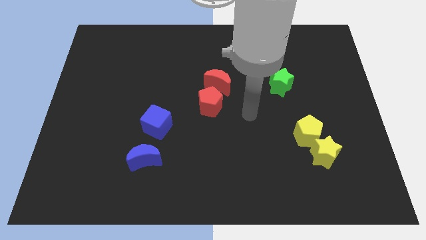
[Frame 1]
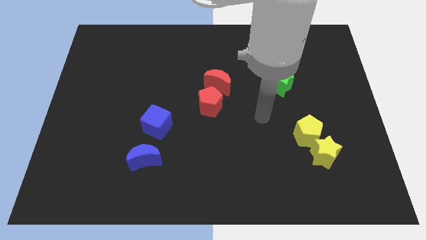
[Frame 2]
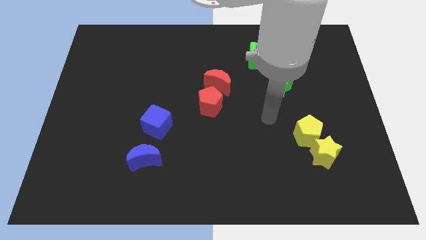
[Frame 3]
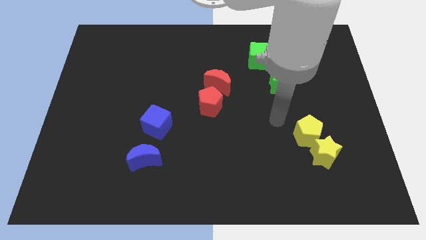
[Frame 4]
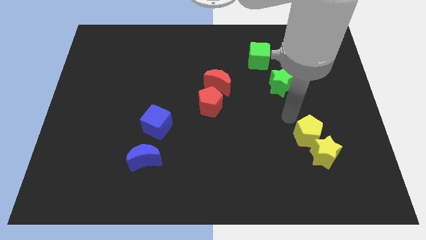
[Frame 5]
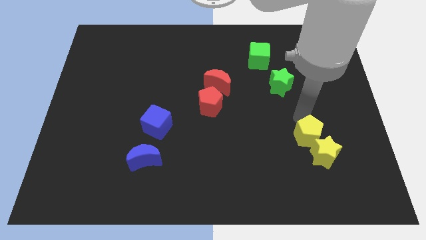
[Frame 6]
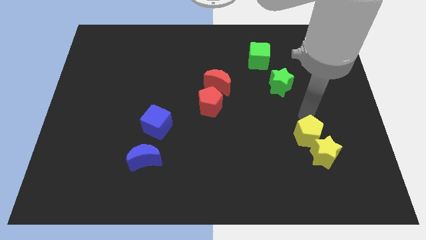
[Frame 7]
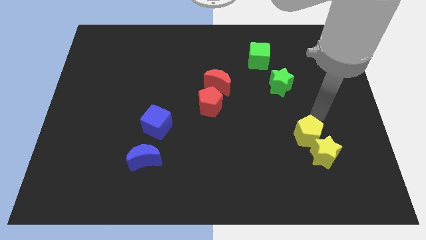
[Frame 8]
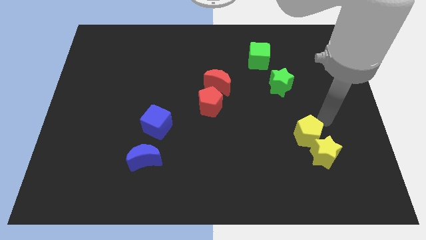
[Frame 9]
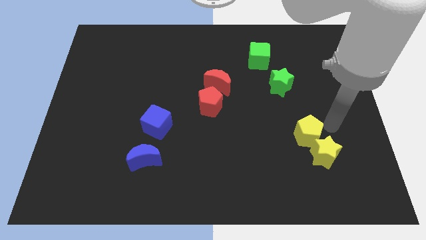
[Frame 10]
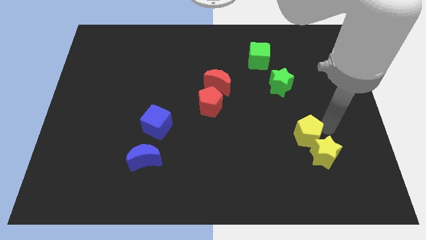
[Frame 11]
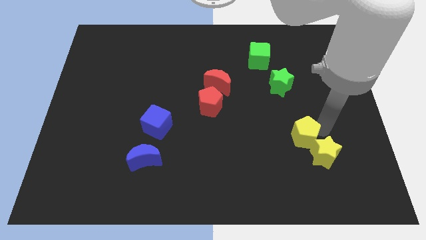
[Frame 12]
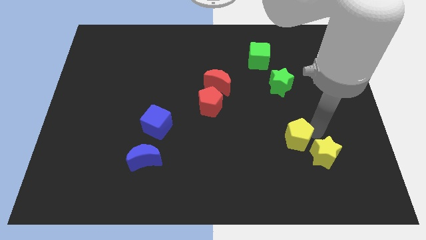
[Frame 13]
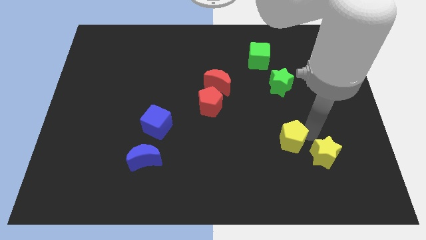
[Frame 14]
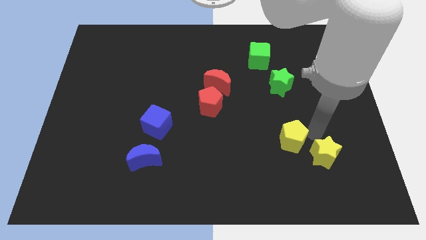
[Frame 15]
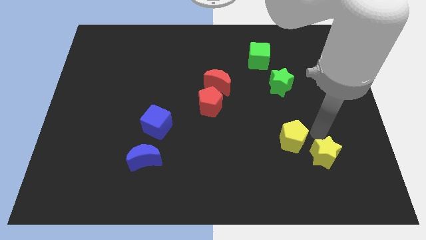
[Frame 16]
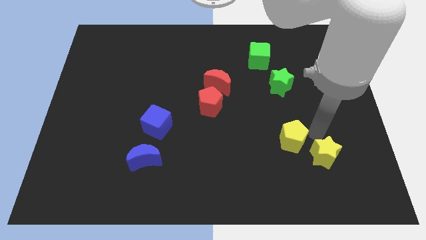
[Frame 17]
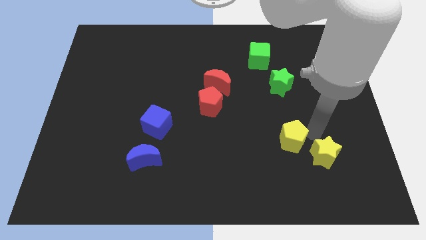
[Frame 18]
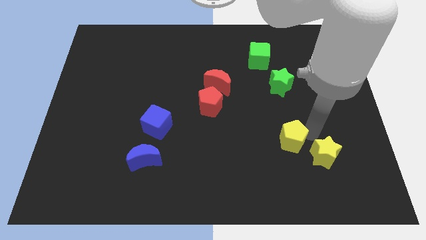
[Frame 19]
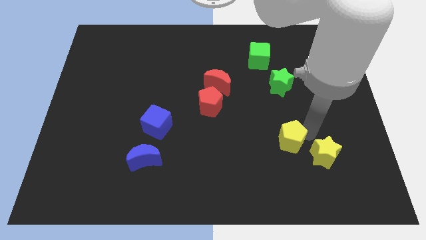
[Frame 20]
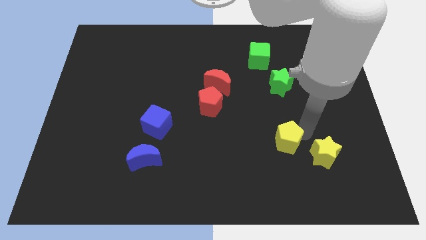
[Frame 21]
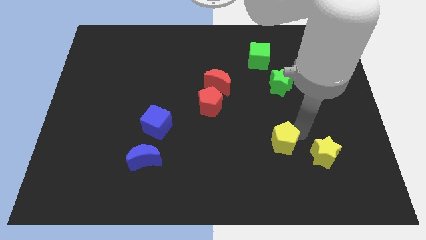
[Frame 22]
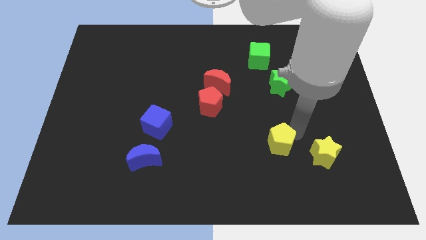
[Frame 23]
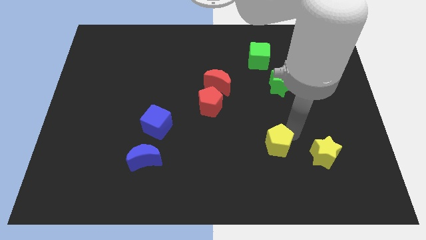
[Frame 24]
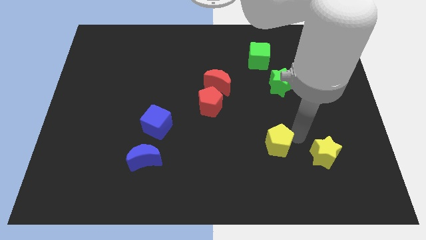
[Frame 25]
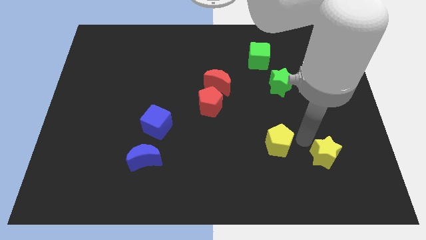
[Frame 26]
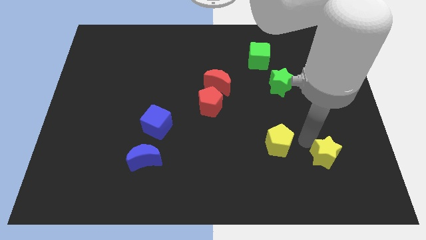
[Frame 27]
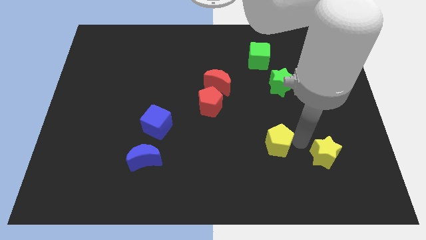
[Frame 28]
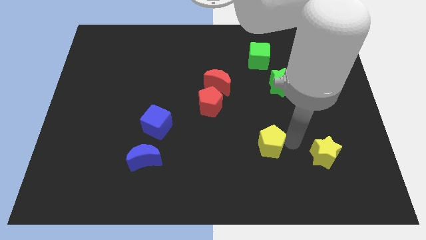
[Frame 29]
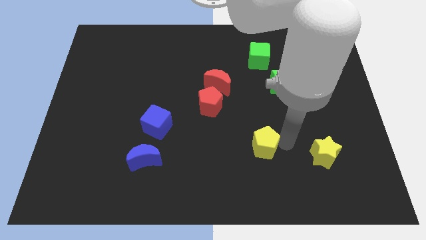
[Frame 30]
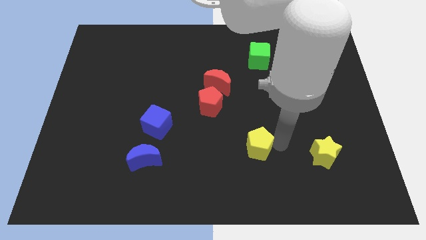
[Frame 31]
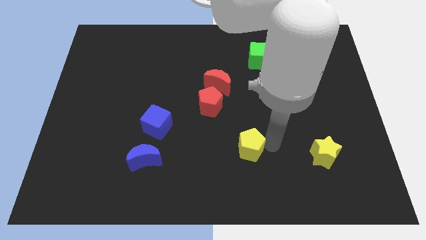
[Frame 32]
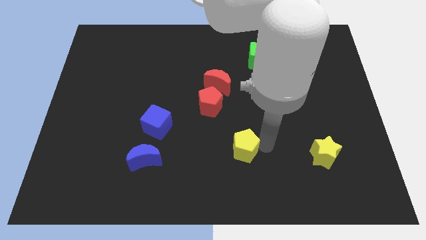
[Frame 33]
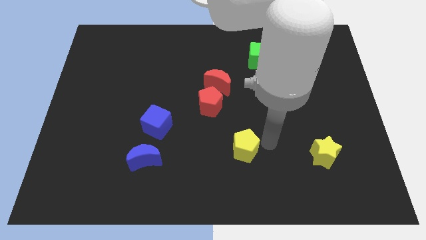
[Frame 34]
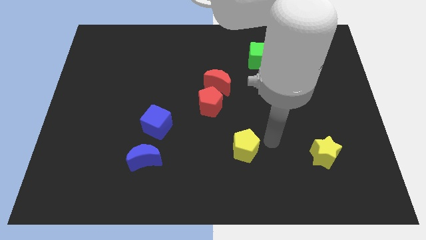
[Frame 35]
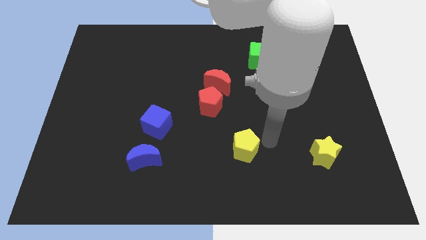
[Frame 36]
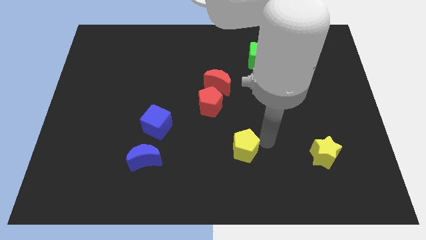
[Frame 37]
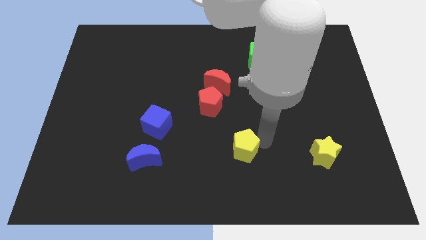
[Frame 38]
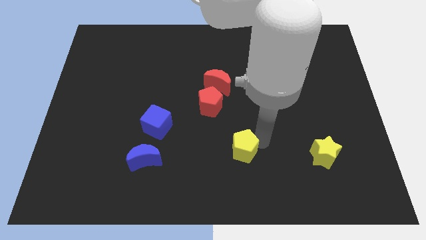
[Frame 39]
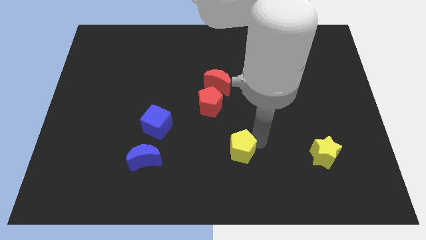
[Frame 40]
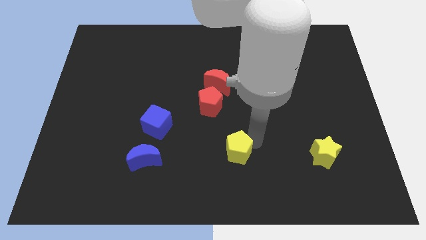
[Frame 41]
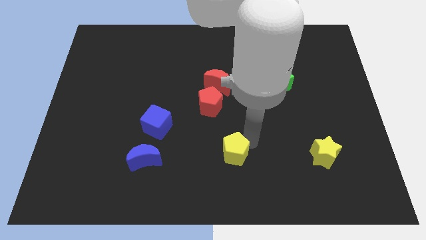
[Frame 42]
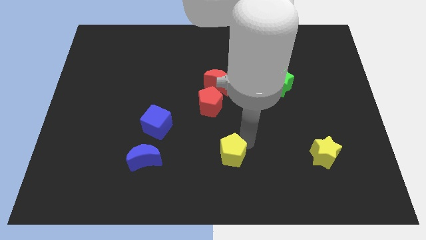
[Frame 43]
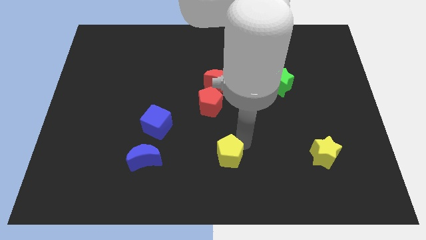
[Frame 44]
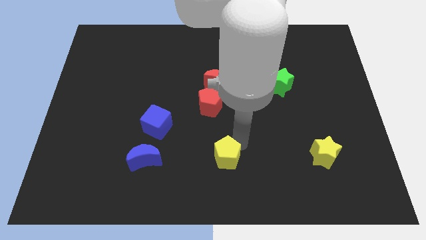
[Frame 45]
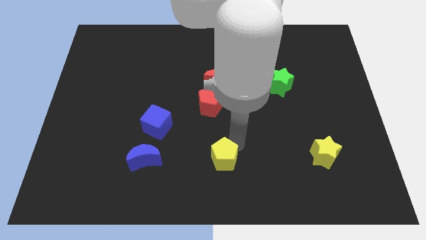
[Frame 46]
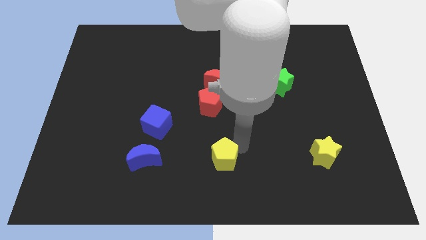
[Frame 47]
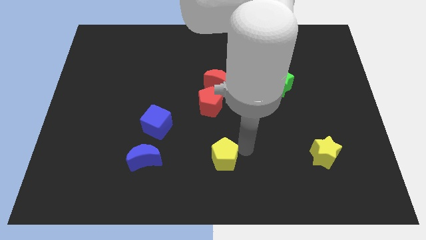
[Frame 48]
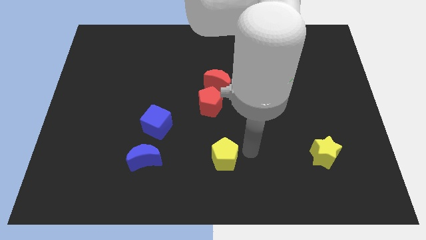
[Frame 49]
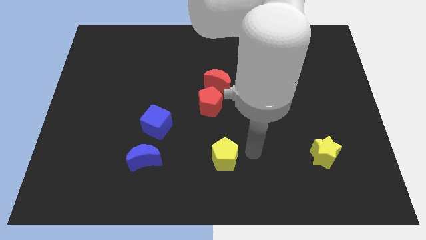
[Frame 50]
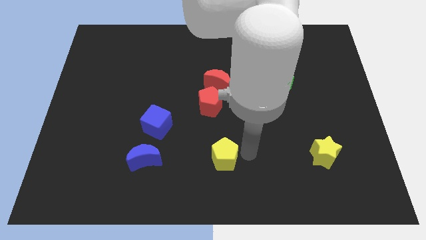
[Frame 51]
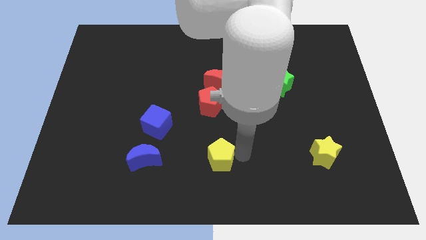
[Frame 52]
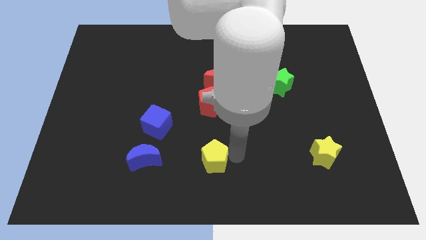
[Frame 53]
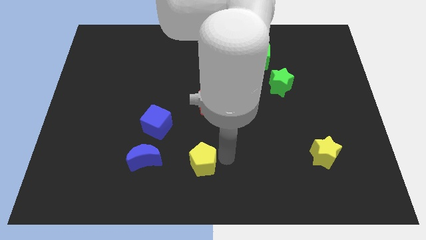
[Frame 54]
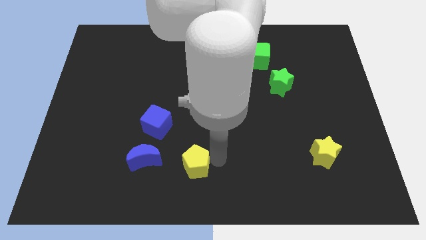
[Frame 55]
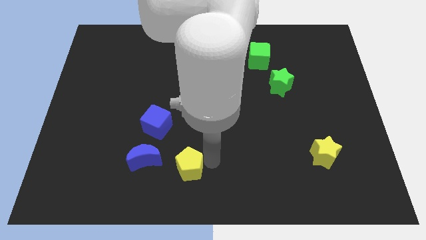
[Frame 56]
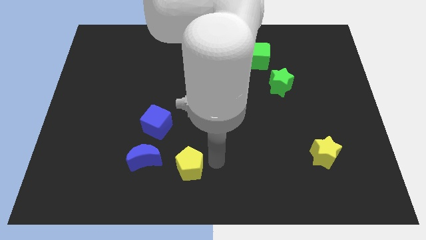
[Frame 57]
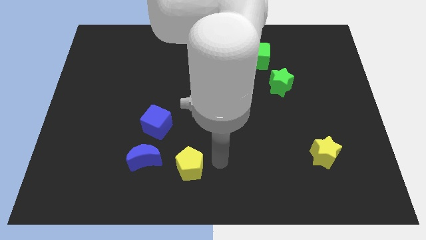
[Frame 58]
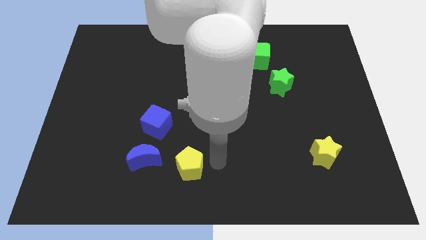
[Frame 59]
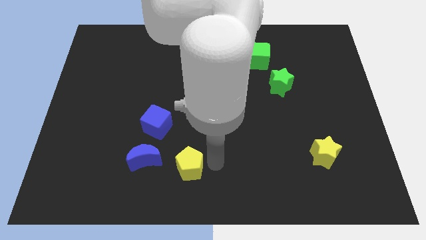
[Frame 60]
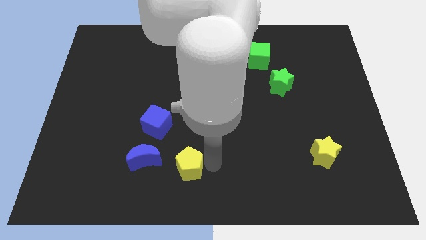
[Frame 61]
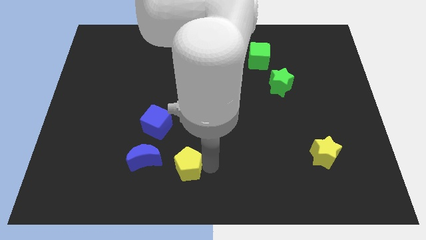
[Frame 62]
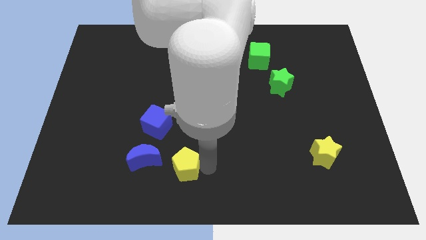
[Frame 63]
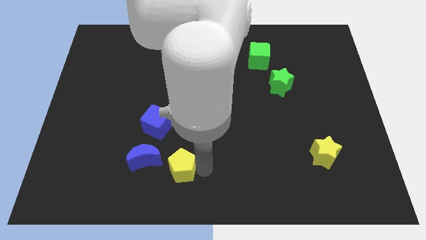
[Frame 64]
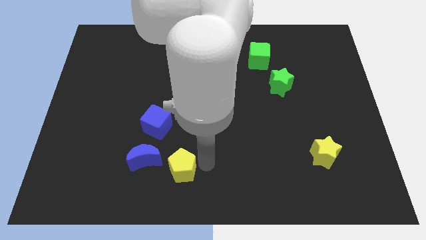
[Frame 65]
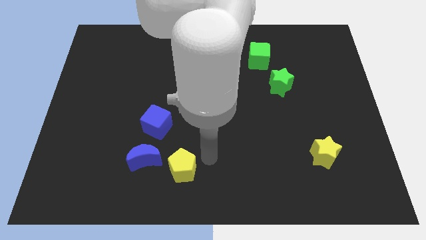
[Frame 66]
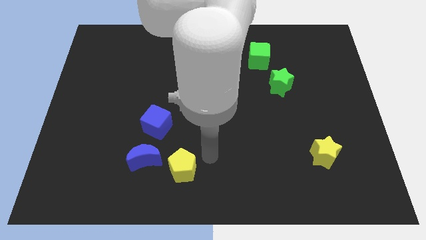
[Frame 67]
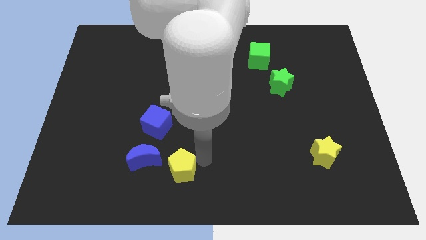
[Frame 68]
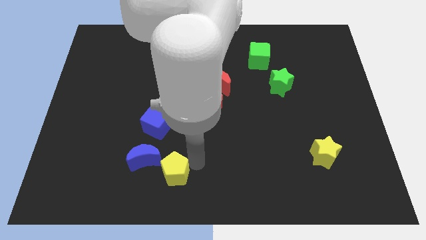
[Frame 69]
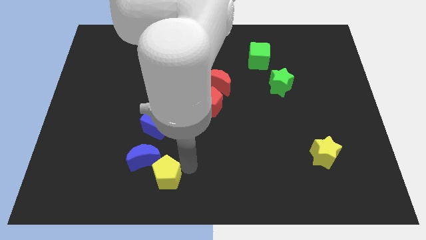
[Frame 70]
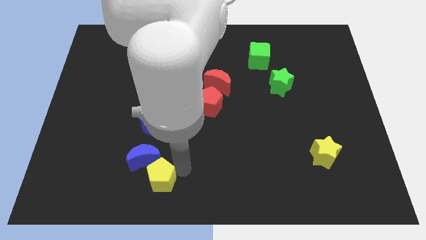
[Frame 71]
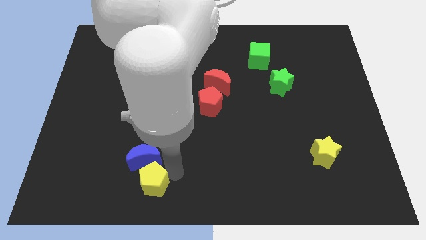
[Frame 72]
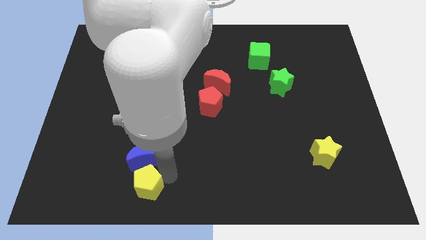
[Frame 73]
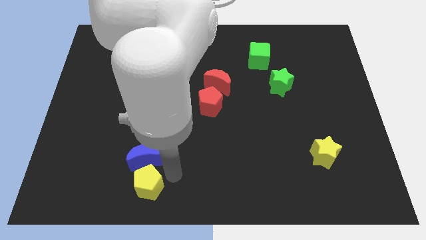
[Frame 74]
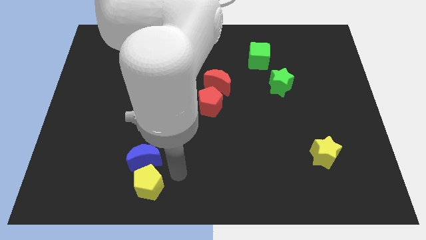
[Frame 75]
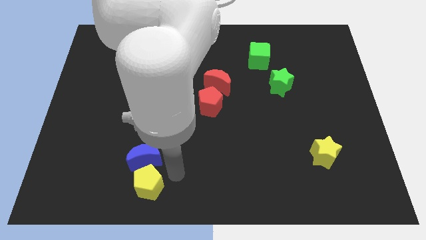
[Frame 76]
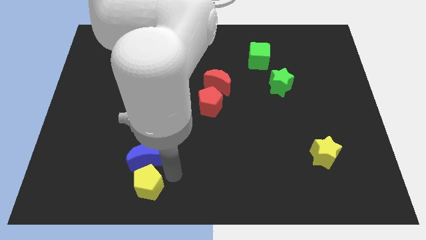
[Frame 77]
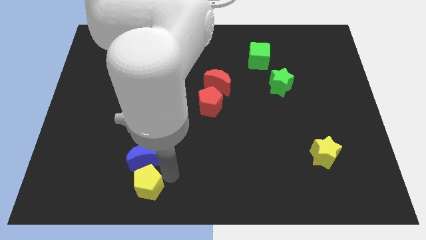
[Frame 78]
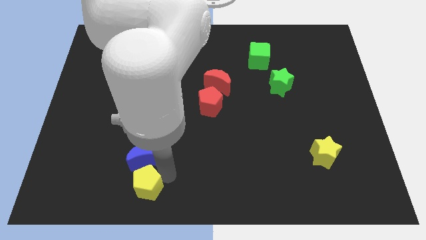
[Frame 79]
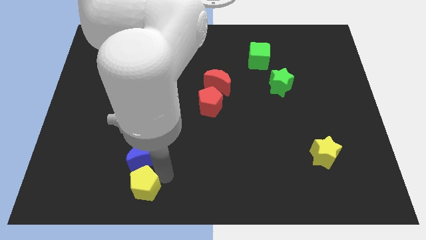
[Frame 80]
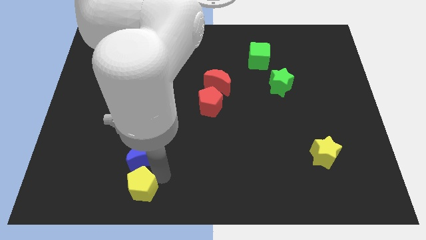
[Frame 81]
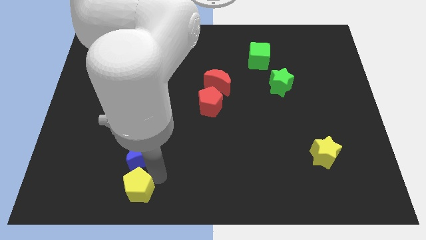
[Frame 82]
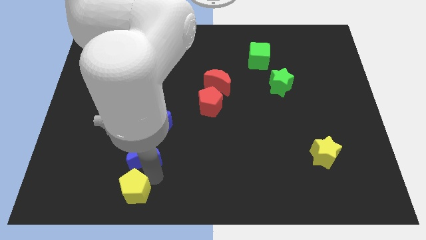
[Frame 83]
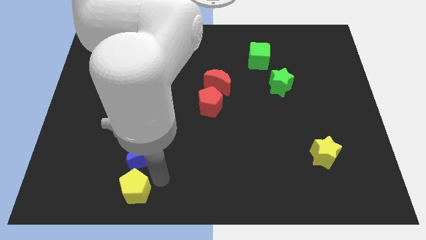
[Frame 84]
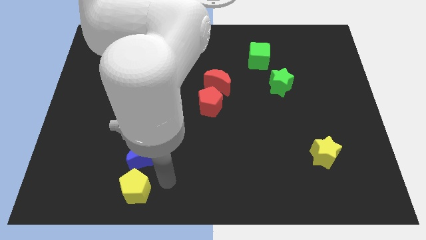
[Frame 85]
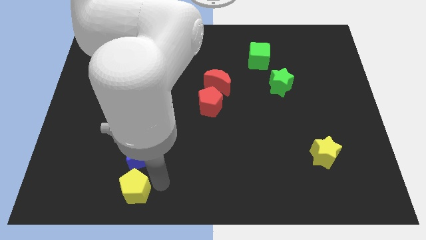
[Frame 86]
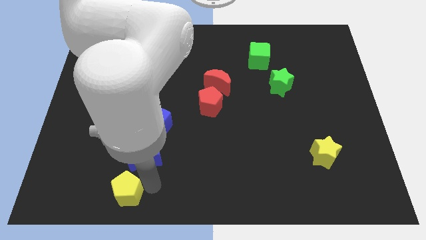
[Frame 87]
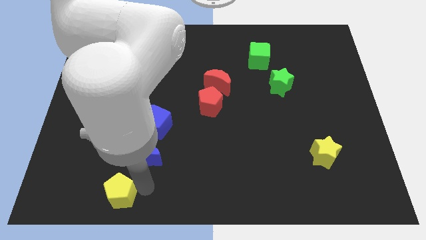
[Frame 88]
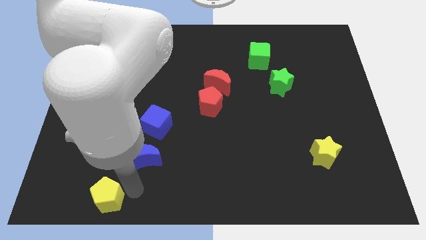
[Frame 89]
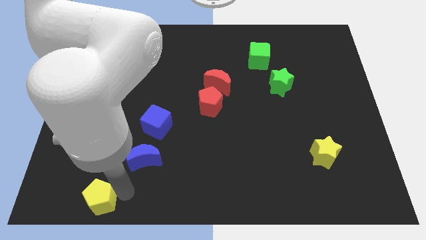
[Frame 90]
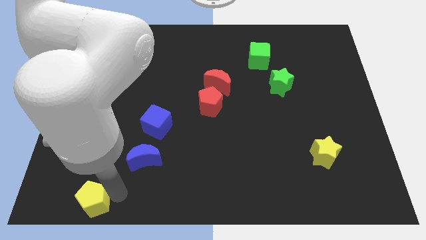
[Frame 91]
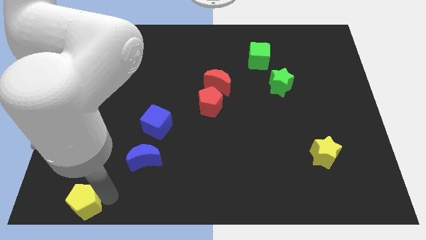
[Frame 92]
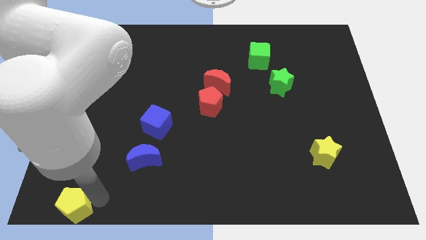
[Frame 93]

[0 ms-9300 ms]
push the yellow pentagon to the lower left corner
